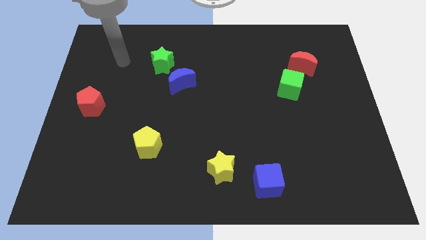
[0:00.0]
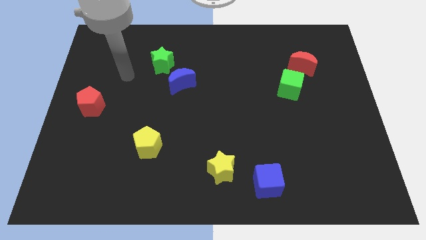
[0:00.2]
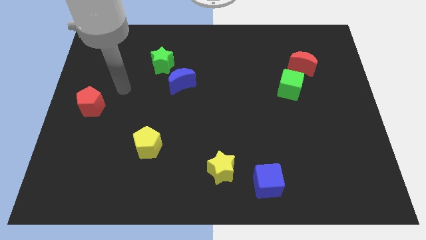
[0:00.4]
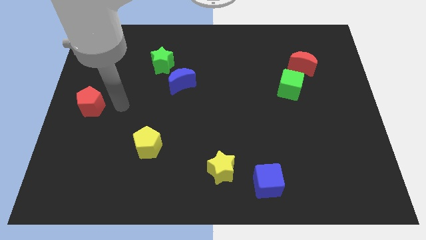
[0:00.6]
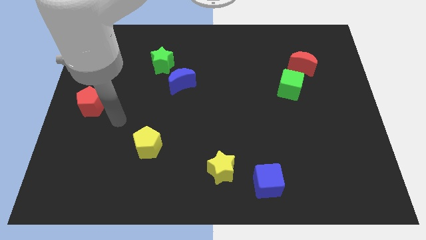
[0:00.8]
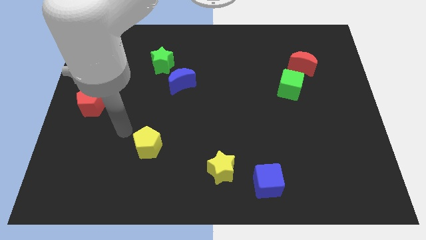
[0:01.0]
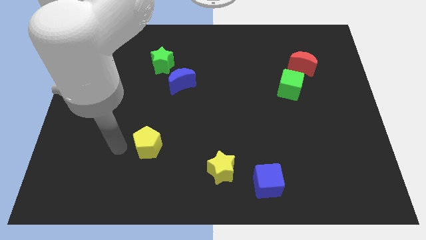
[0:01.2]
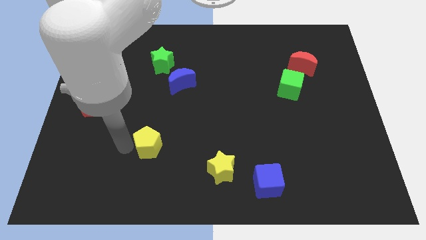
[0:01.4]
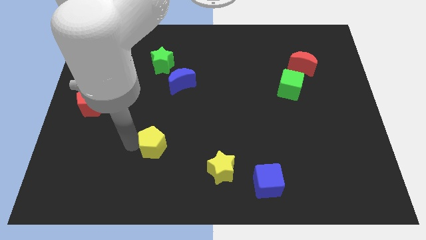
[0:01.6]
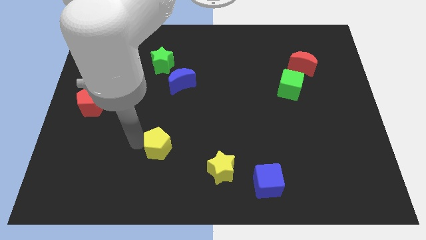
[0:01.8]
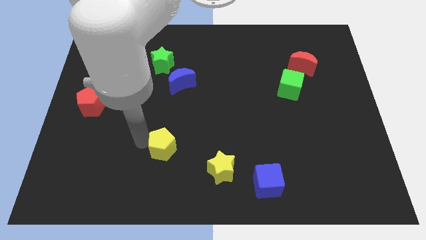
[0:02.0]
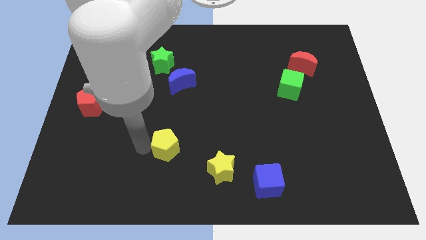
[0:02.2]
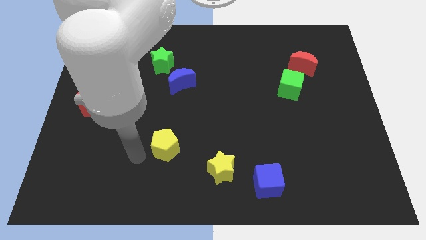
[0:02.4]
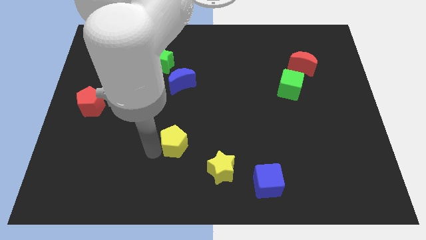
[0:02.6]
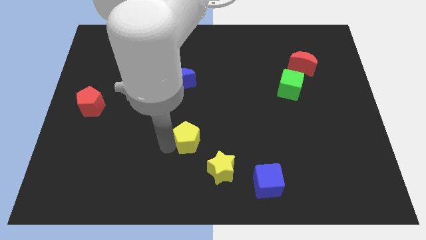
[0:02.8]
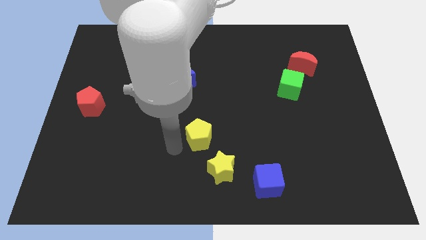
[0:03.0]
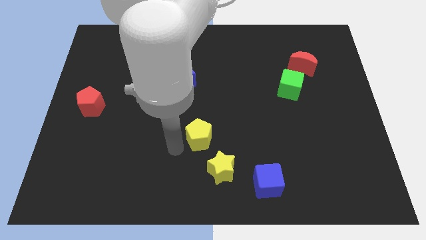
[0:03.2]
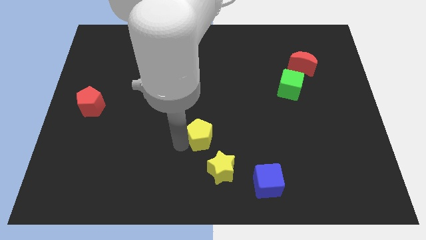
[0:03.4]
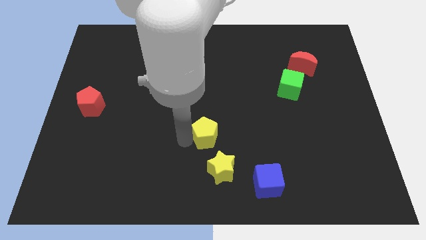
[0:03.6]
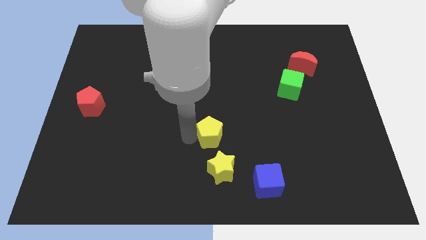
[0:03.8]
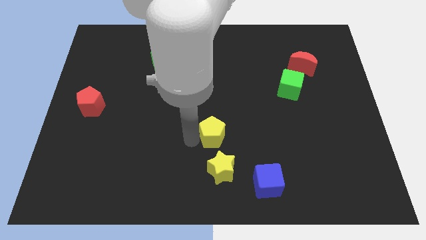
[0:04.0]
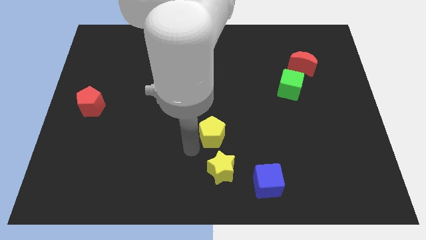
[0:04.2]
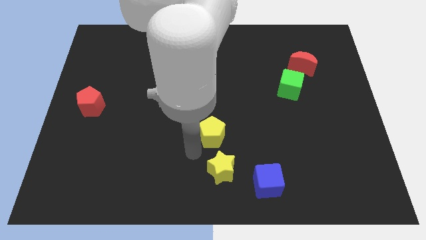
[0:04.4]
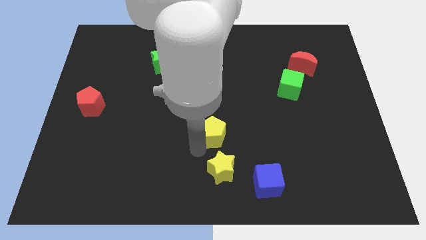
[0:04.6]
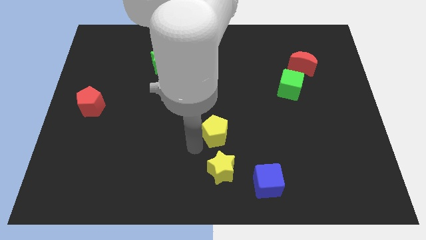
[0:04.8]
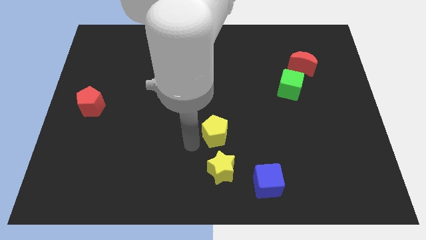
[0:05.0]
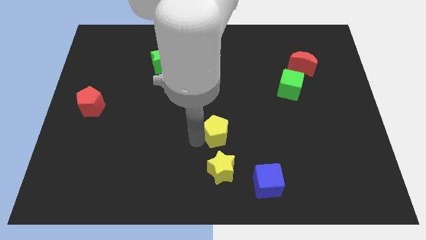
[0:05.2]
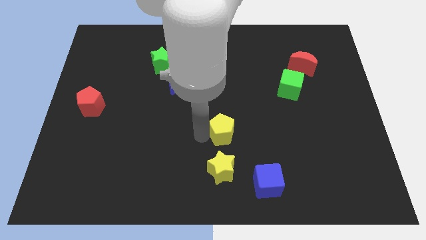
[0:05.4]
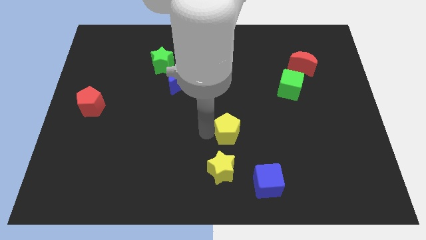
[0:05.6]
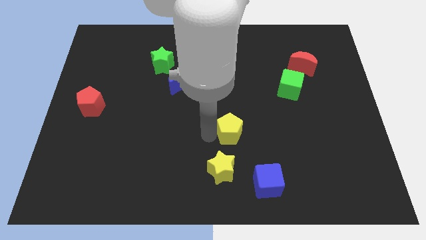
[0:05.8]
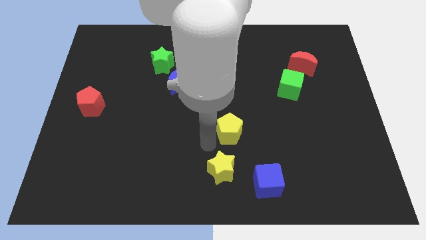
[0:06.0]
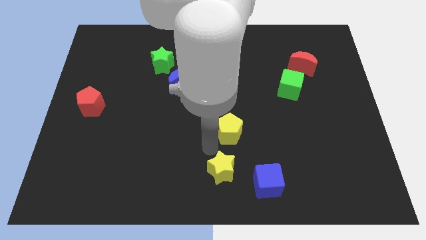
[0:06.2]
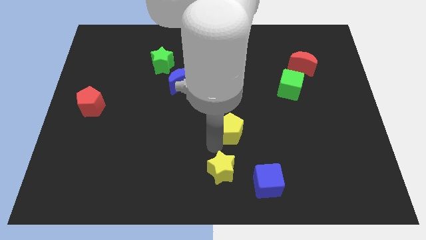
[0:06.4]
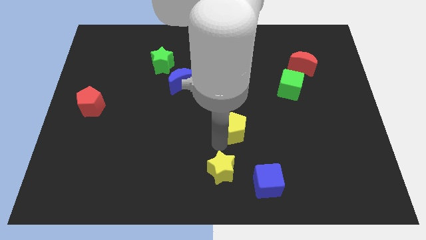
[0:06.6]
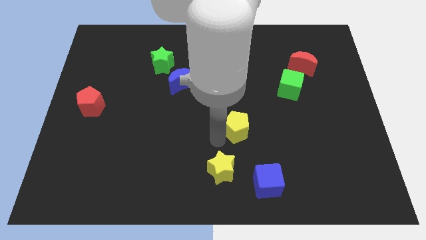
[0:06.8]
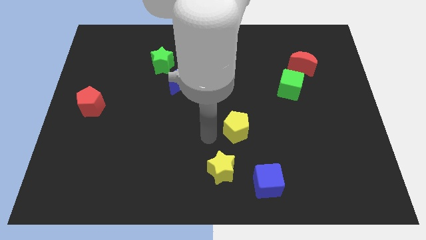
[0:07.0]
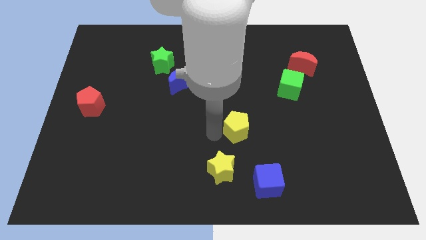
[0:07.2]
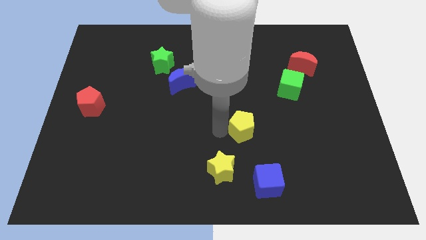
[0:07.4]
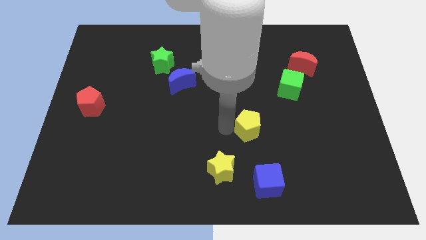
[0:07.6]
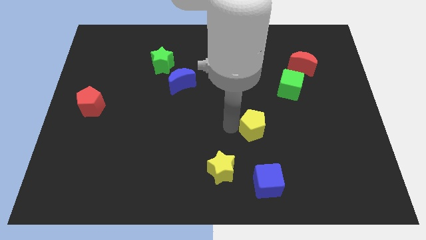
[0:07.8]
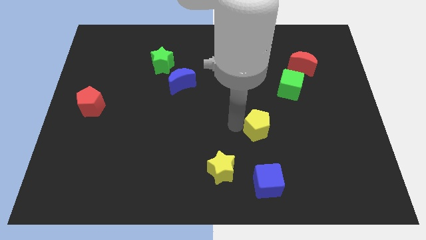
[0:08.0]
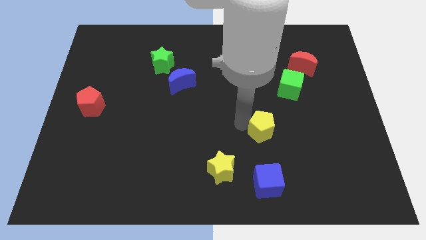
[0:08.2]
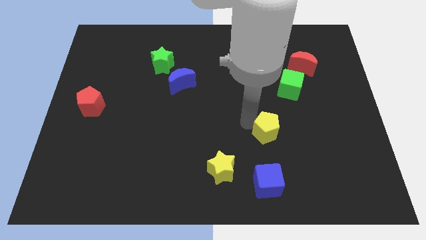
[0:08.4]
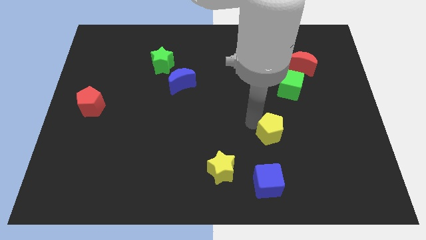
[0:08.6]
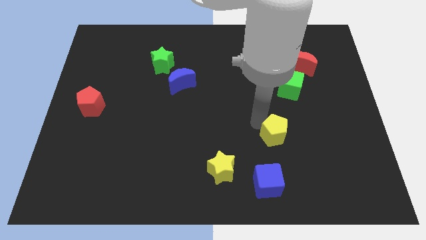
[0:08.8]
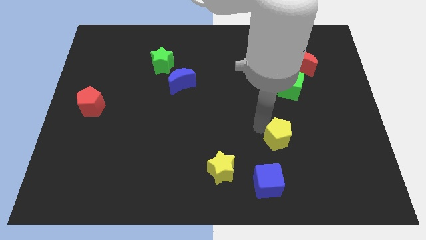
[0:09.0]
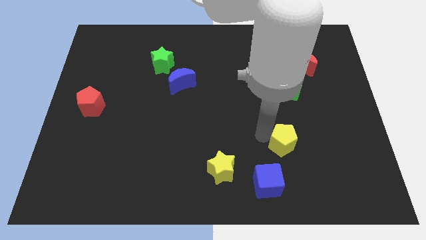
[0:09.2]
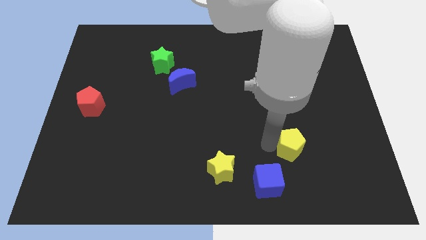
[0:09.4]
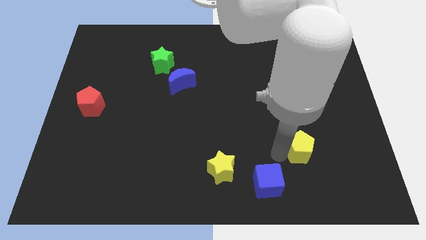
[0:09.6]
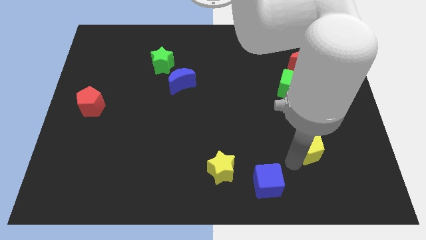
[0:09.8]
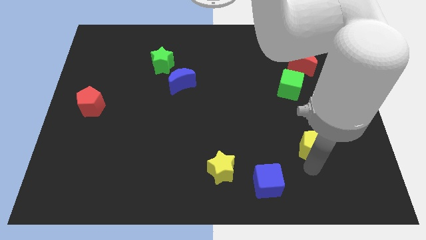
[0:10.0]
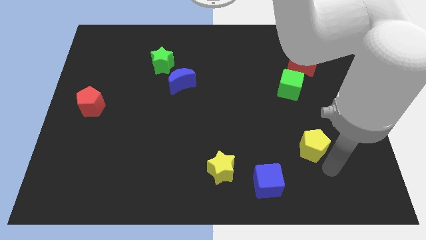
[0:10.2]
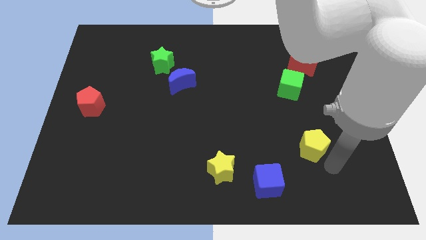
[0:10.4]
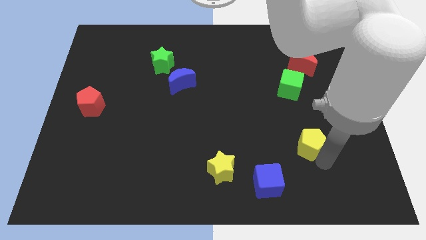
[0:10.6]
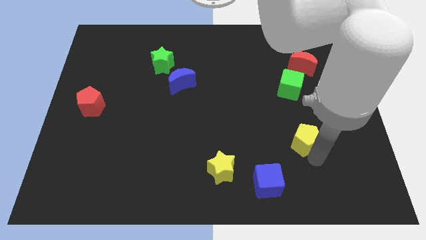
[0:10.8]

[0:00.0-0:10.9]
move the yellow pentagon to the bottom of the green cube

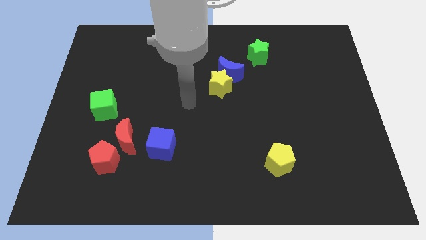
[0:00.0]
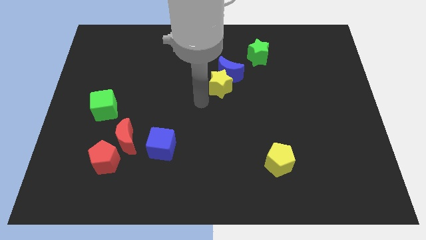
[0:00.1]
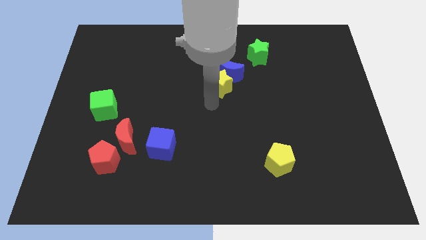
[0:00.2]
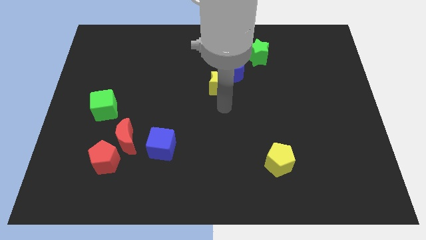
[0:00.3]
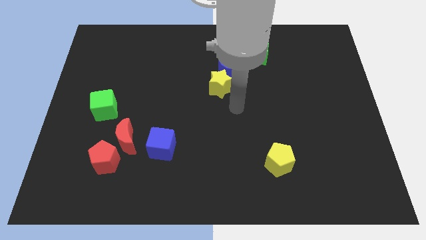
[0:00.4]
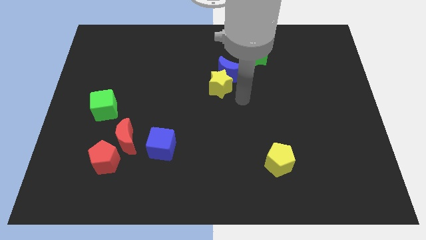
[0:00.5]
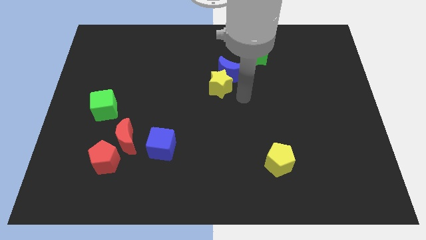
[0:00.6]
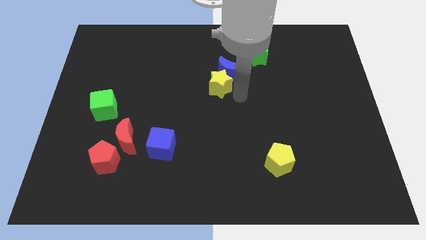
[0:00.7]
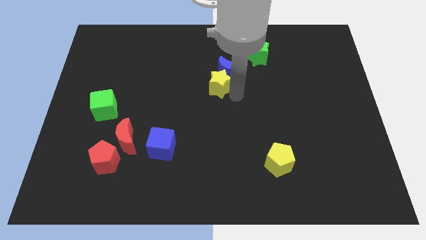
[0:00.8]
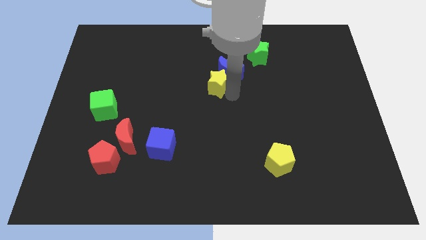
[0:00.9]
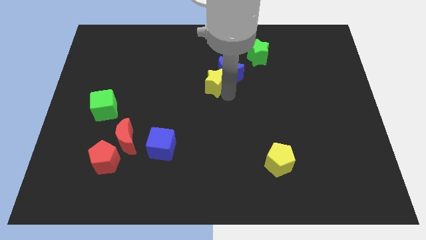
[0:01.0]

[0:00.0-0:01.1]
push the yellow star just left of the blue moon
